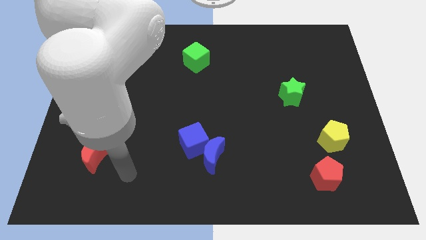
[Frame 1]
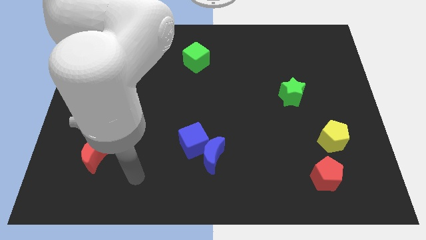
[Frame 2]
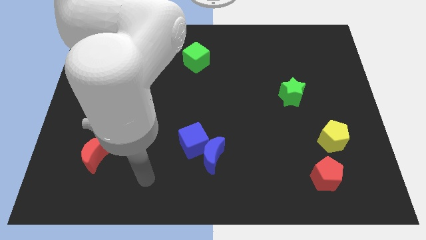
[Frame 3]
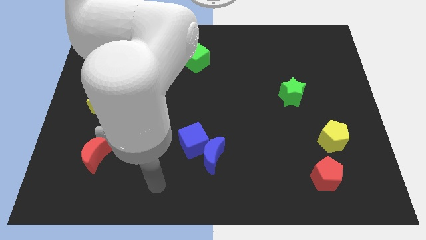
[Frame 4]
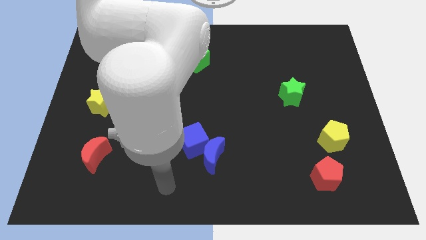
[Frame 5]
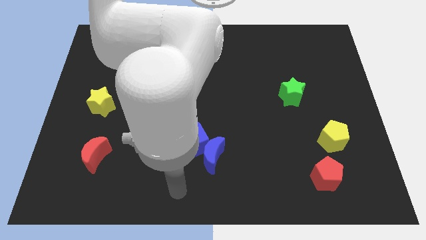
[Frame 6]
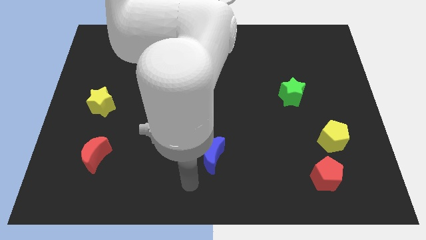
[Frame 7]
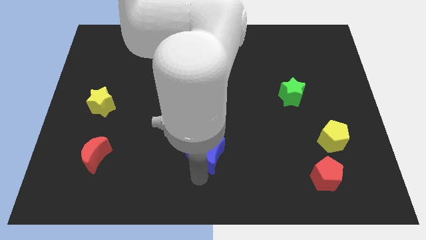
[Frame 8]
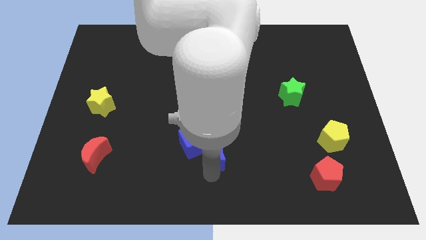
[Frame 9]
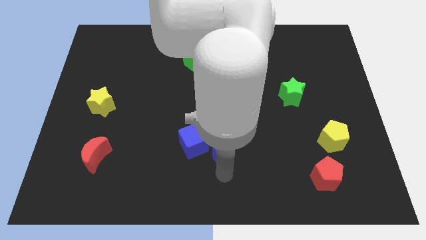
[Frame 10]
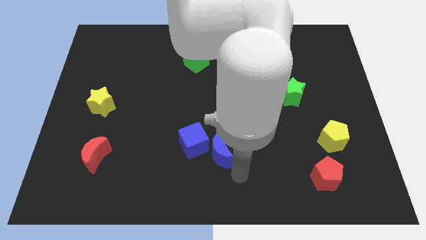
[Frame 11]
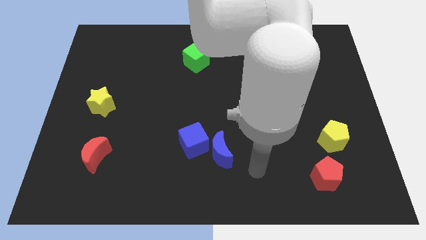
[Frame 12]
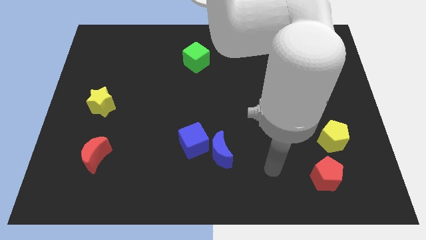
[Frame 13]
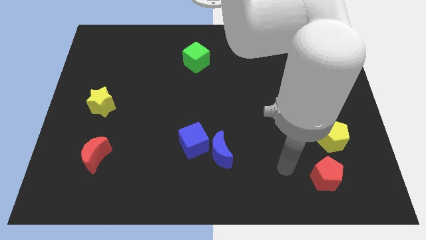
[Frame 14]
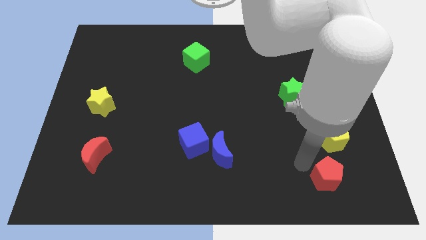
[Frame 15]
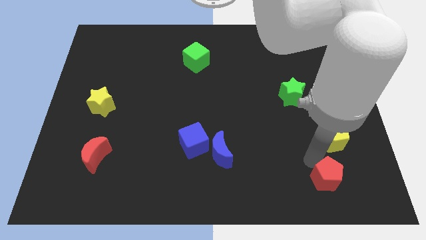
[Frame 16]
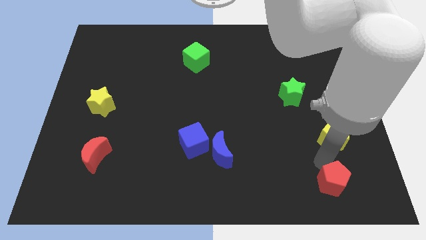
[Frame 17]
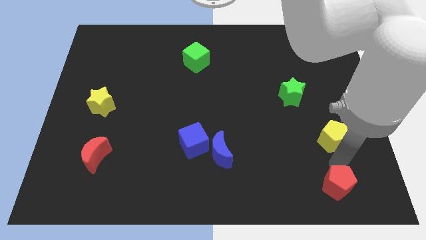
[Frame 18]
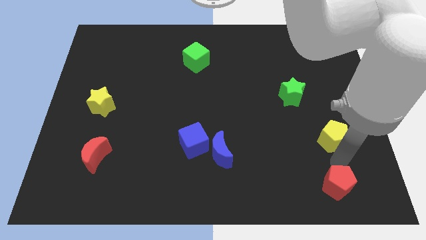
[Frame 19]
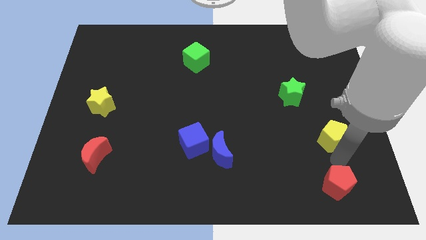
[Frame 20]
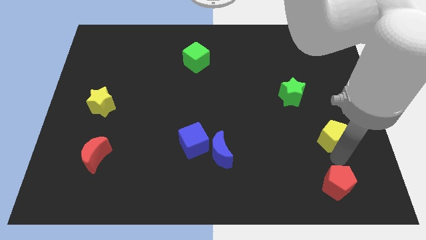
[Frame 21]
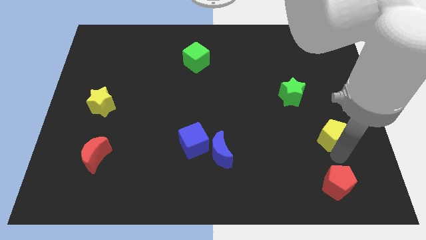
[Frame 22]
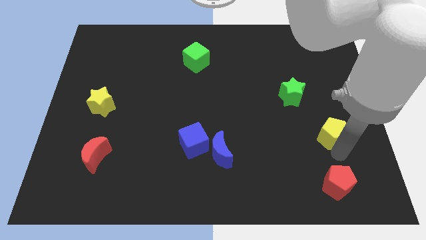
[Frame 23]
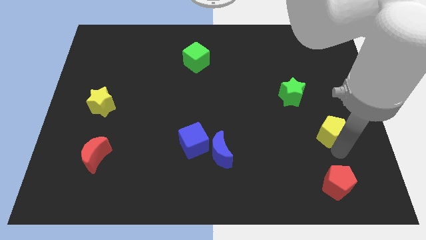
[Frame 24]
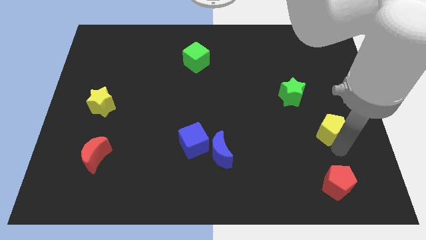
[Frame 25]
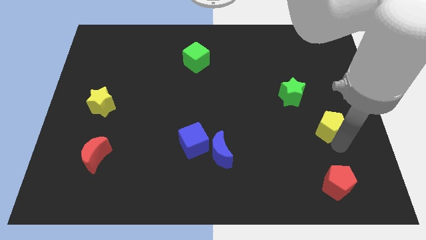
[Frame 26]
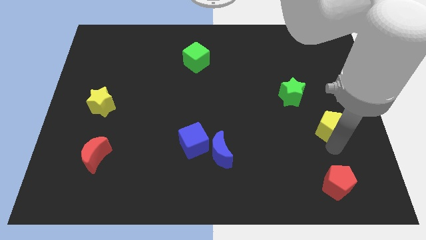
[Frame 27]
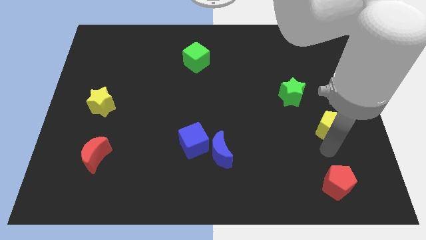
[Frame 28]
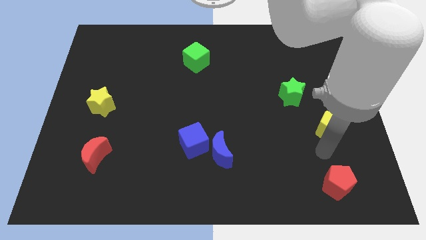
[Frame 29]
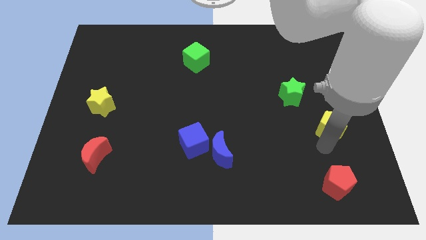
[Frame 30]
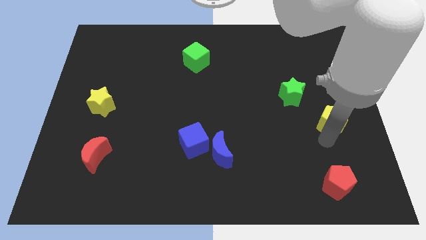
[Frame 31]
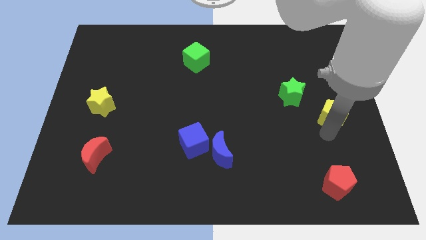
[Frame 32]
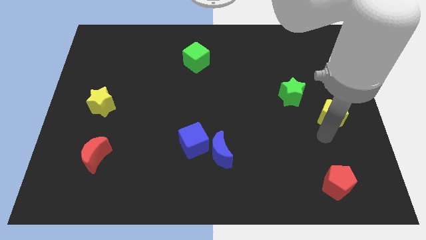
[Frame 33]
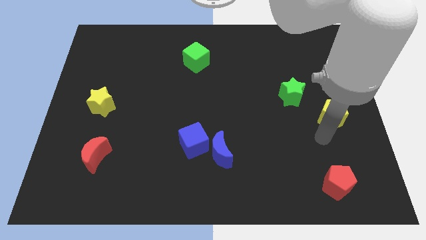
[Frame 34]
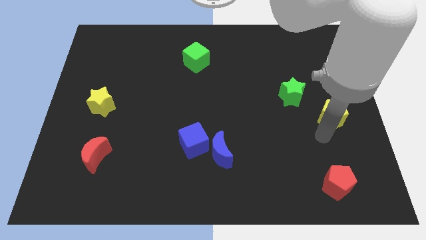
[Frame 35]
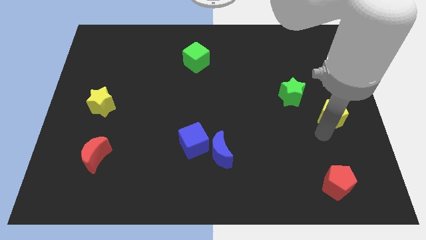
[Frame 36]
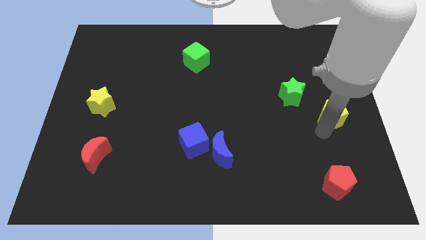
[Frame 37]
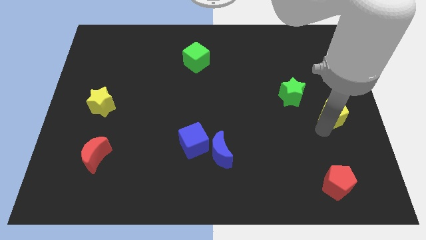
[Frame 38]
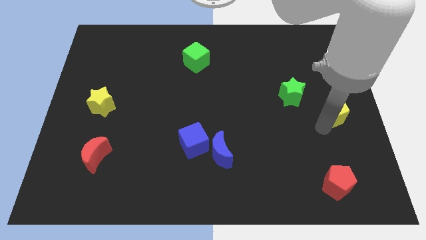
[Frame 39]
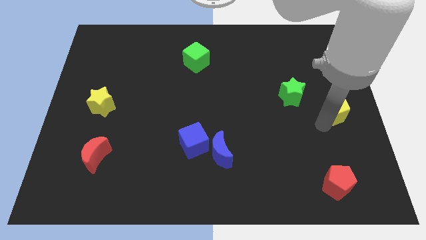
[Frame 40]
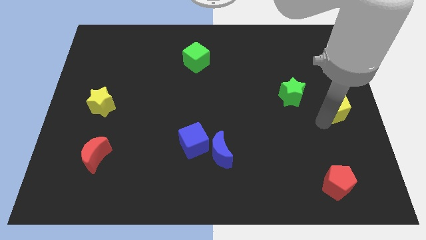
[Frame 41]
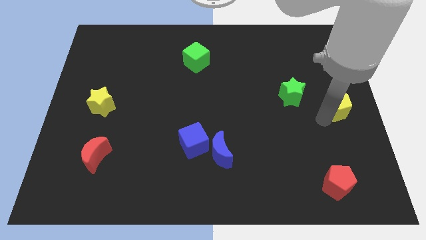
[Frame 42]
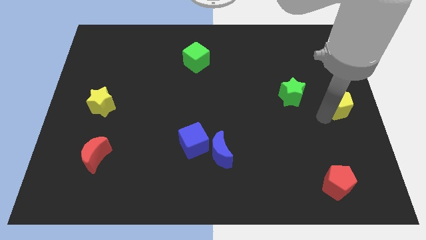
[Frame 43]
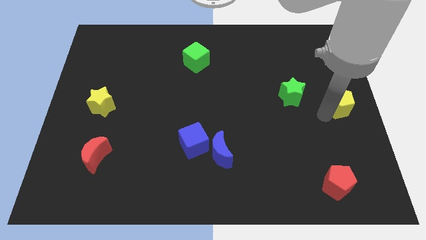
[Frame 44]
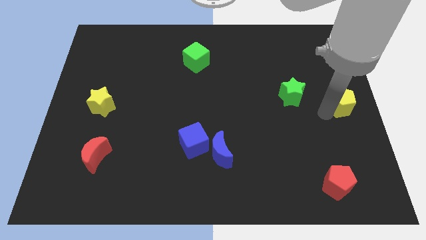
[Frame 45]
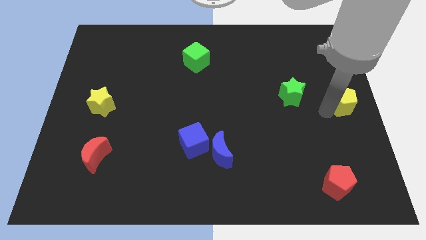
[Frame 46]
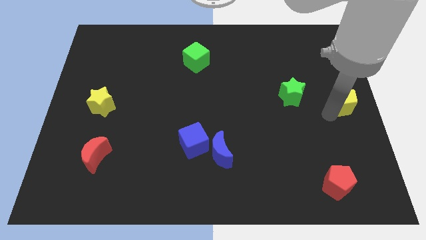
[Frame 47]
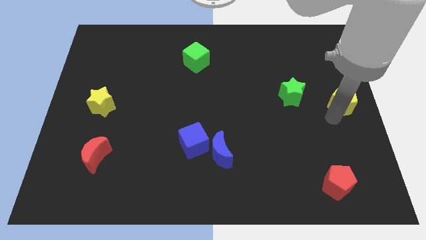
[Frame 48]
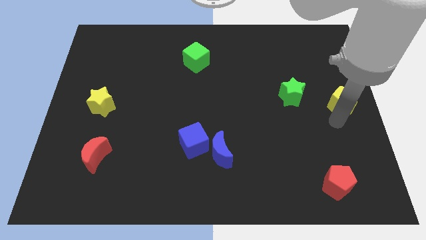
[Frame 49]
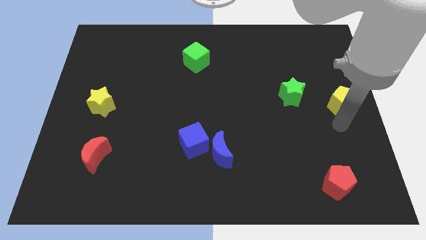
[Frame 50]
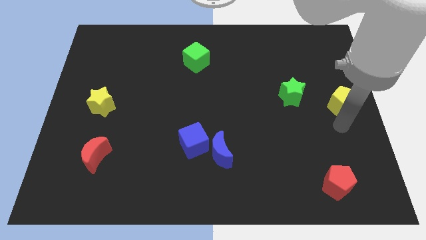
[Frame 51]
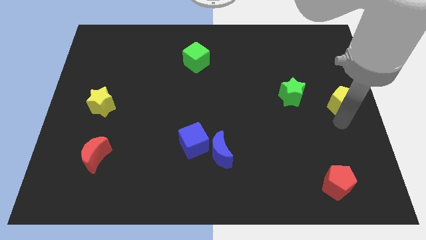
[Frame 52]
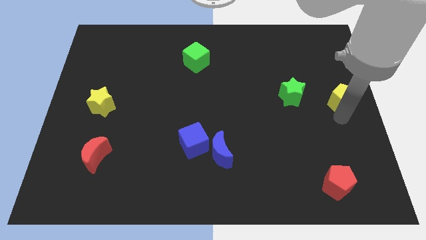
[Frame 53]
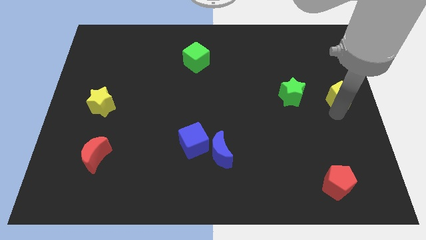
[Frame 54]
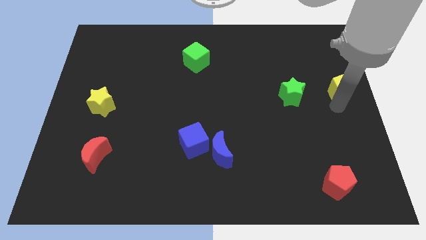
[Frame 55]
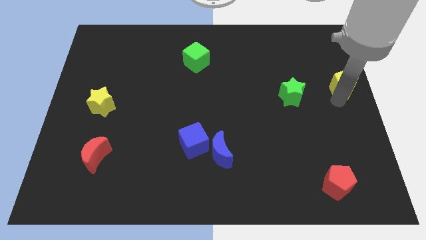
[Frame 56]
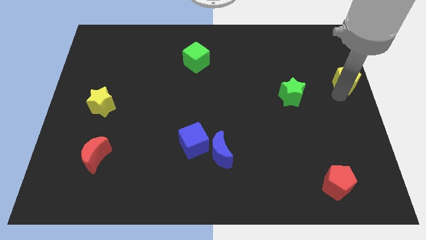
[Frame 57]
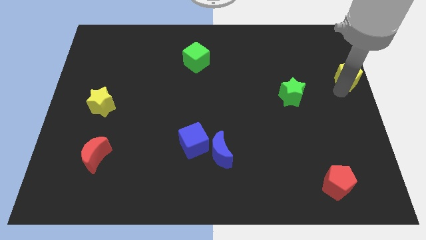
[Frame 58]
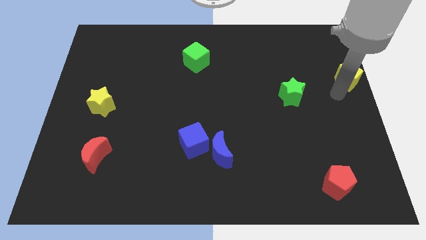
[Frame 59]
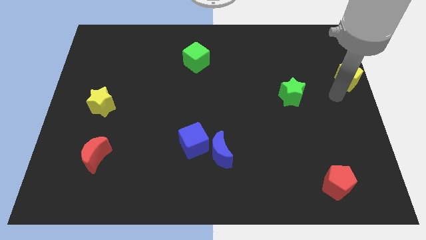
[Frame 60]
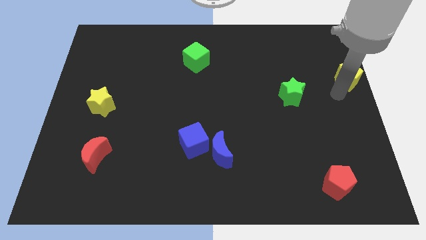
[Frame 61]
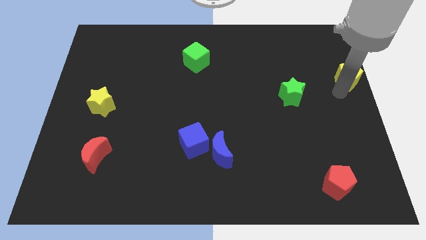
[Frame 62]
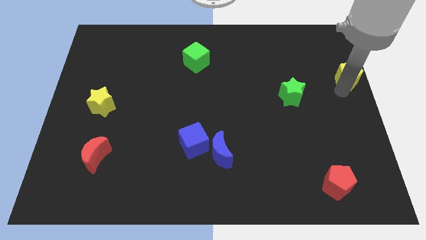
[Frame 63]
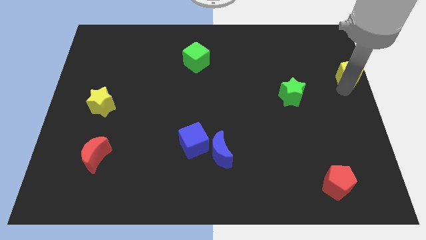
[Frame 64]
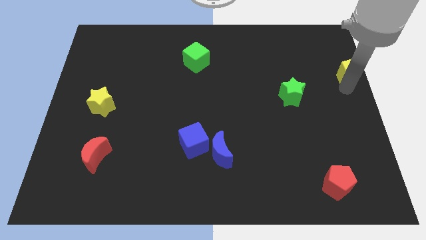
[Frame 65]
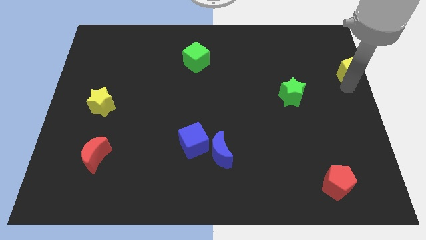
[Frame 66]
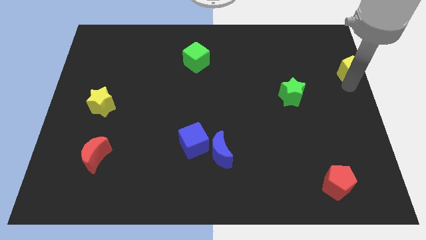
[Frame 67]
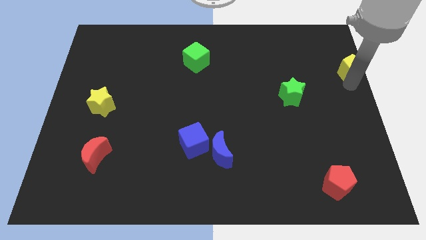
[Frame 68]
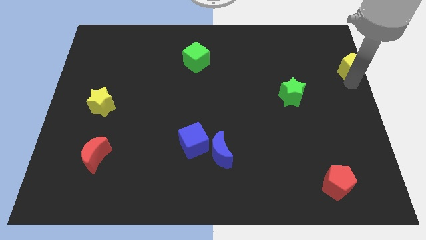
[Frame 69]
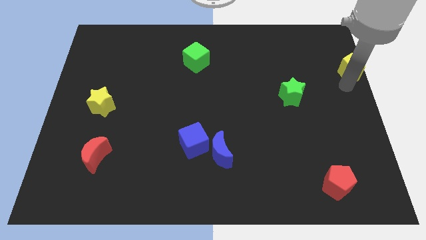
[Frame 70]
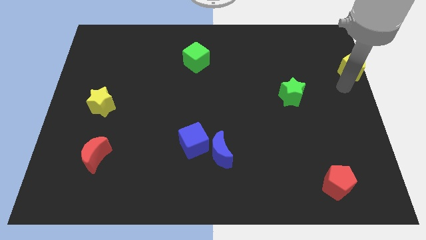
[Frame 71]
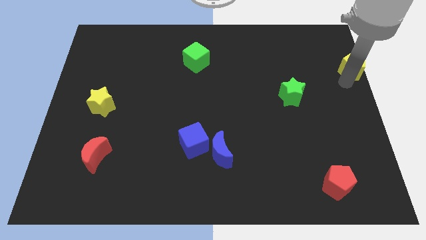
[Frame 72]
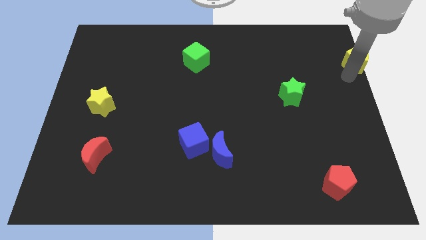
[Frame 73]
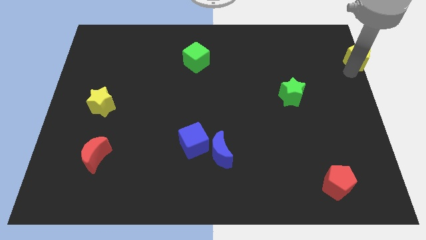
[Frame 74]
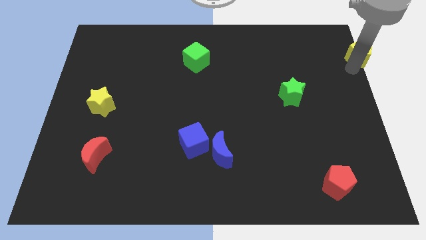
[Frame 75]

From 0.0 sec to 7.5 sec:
push the yellow pentagon to the top right
